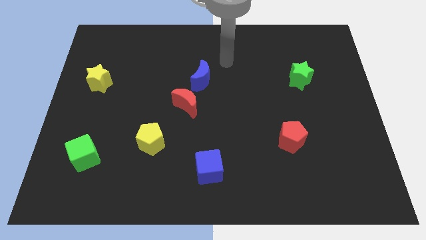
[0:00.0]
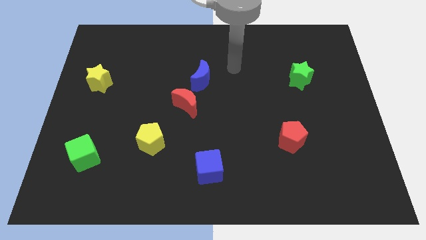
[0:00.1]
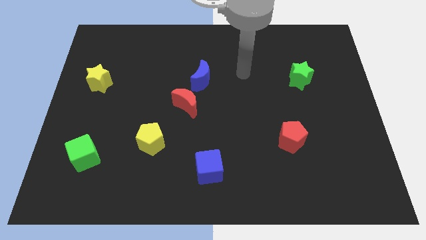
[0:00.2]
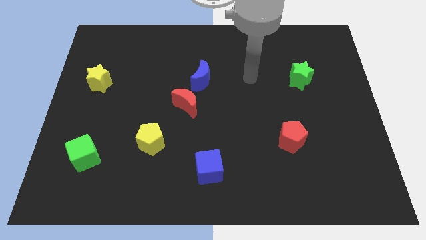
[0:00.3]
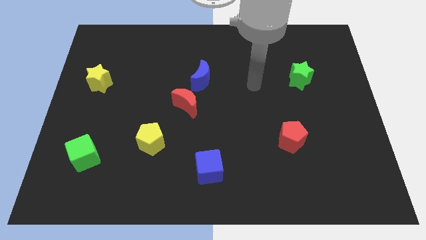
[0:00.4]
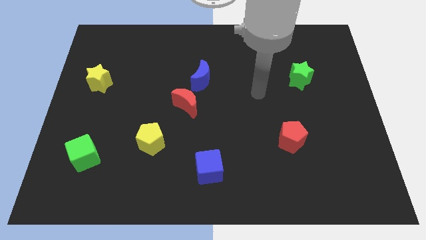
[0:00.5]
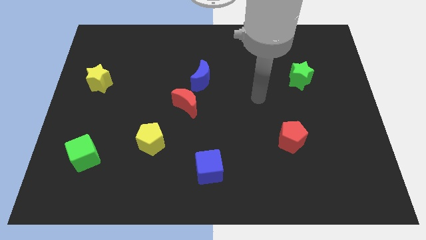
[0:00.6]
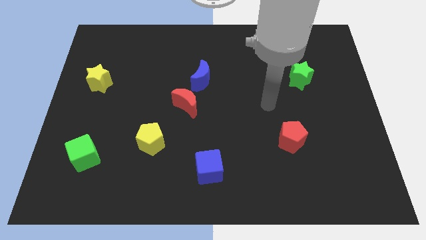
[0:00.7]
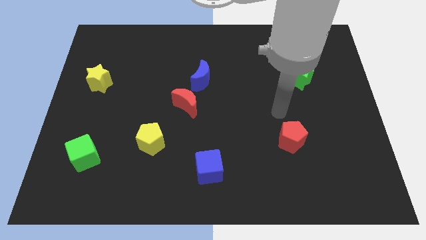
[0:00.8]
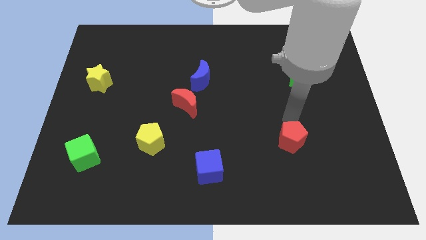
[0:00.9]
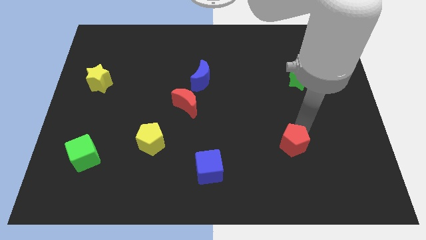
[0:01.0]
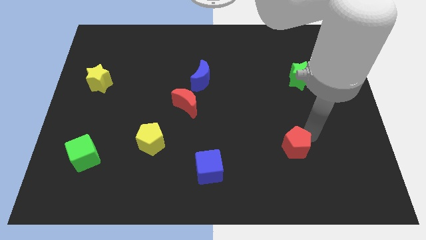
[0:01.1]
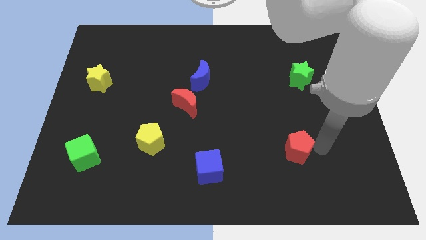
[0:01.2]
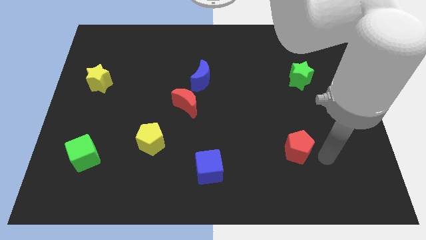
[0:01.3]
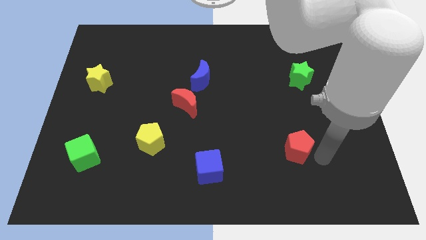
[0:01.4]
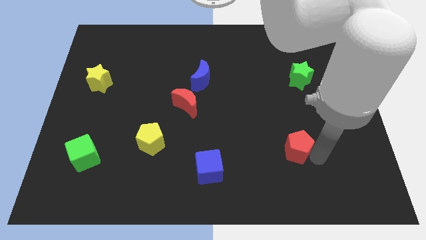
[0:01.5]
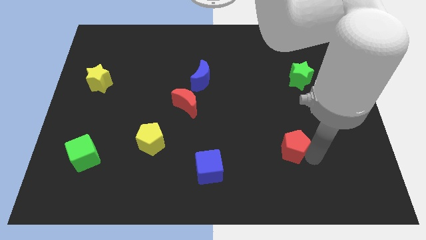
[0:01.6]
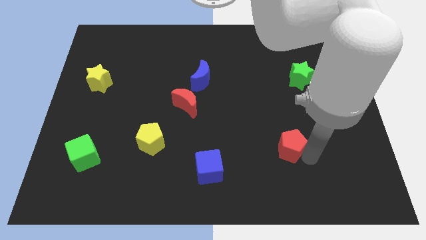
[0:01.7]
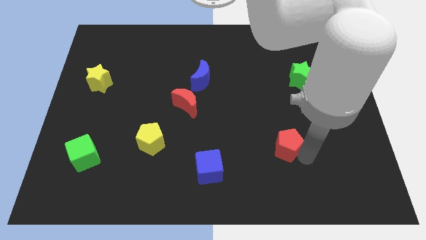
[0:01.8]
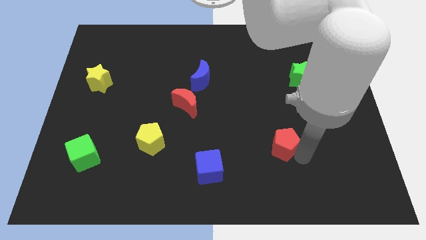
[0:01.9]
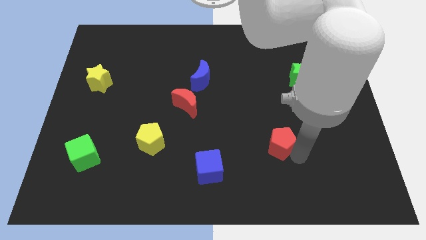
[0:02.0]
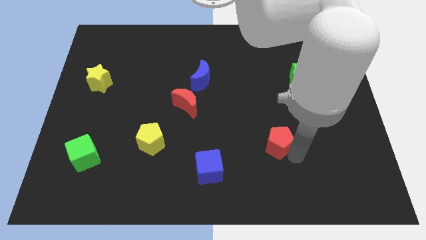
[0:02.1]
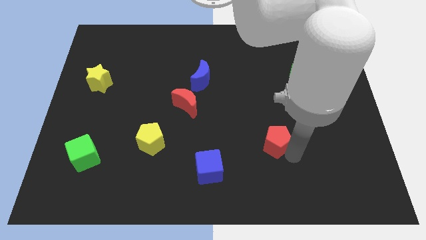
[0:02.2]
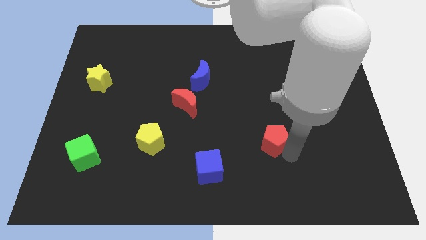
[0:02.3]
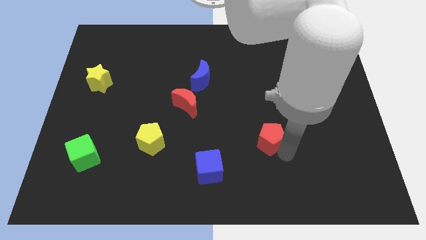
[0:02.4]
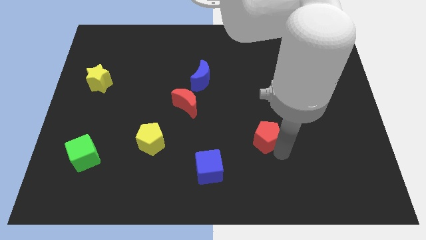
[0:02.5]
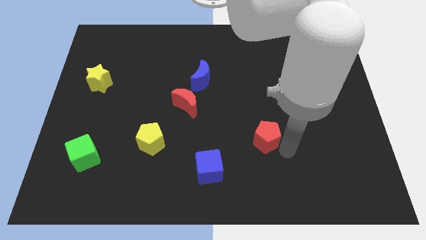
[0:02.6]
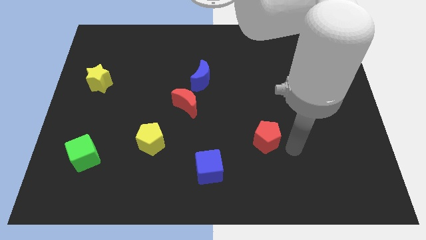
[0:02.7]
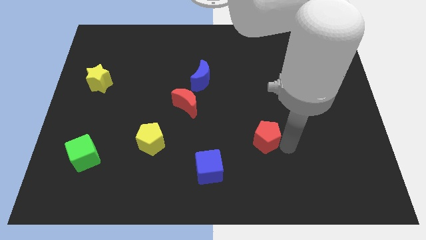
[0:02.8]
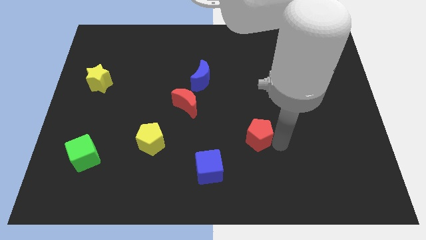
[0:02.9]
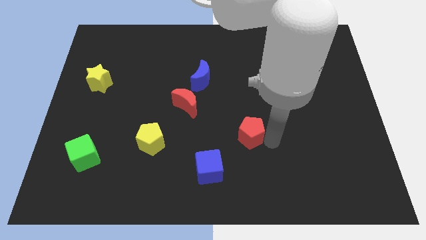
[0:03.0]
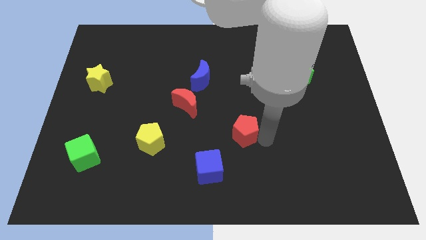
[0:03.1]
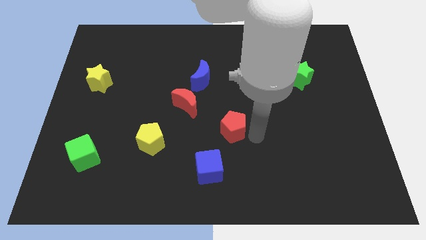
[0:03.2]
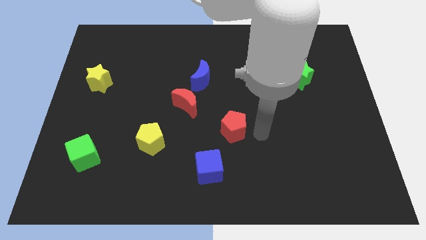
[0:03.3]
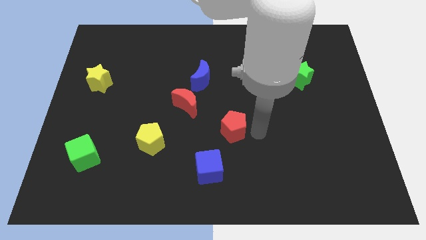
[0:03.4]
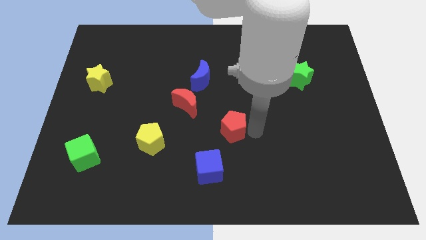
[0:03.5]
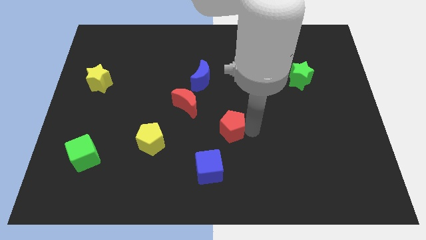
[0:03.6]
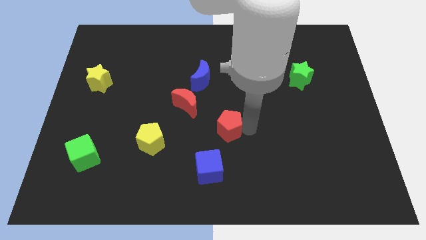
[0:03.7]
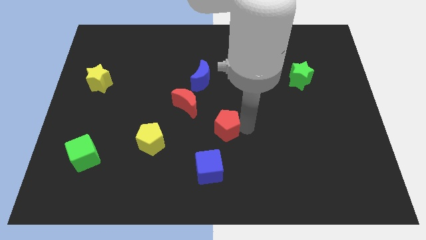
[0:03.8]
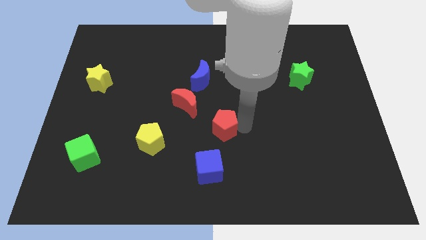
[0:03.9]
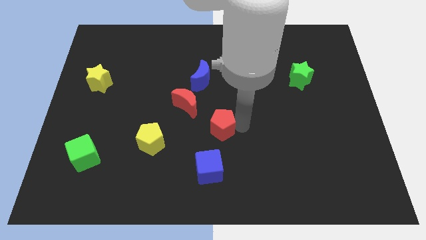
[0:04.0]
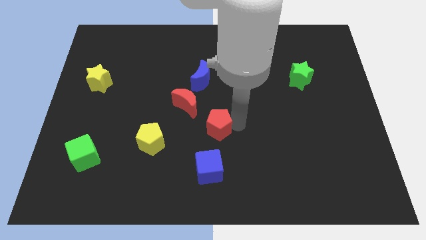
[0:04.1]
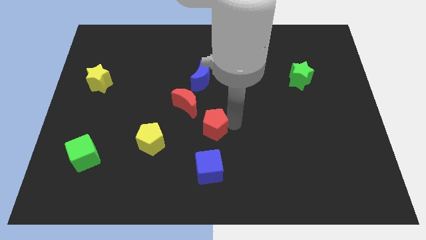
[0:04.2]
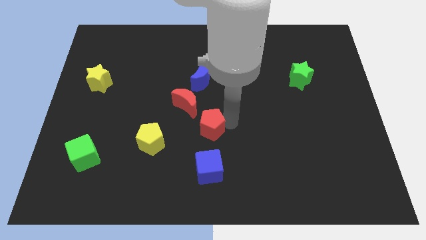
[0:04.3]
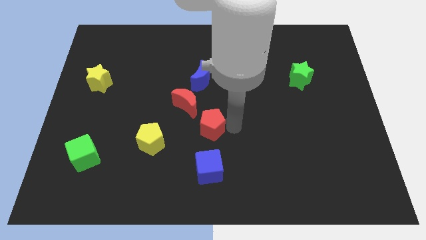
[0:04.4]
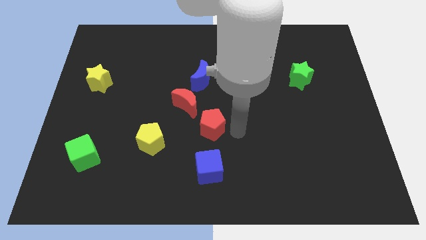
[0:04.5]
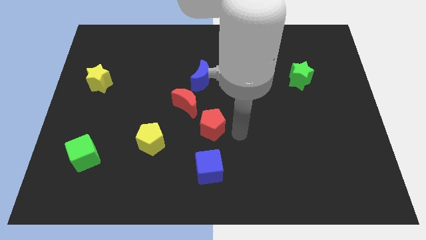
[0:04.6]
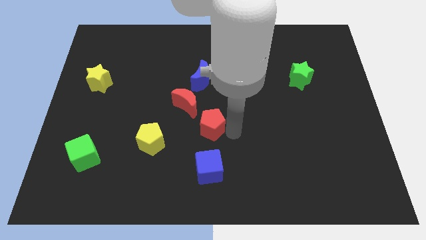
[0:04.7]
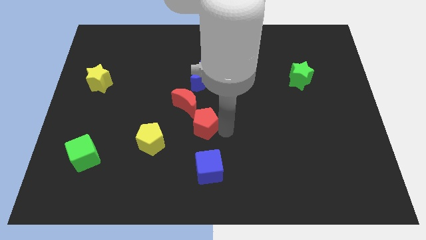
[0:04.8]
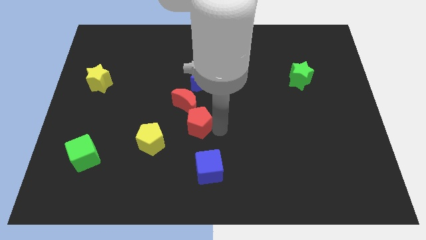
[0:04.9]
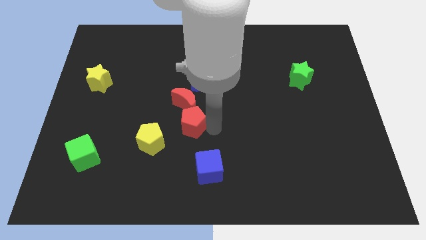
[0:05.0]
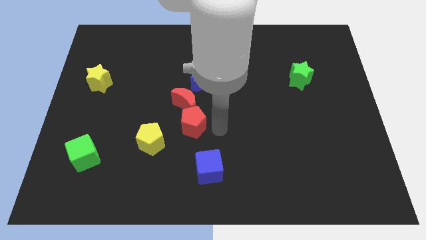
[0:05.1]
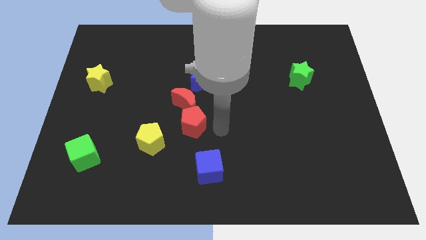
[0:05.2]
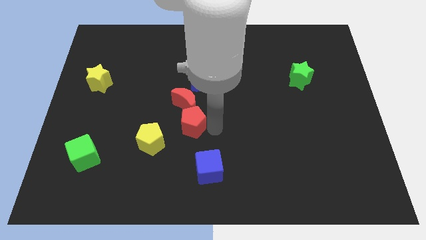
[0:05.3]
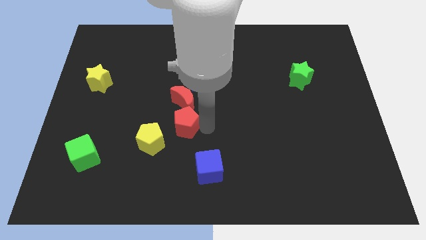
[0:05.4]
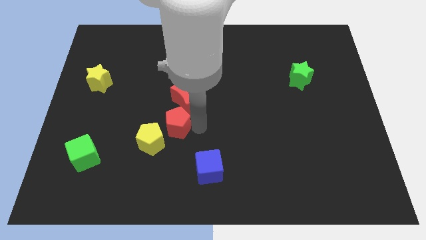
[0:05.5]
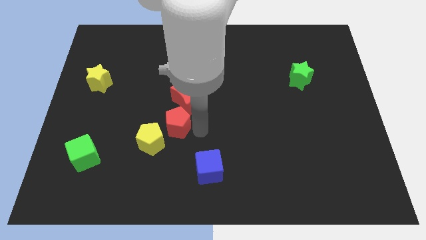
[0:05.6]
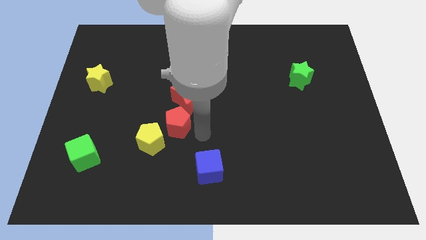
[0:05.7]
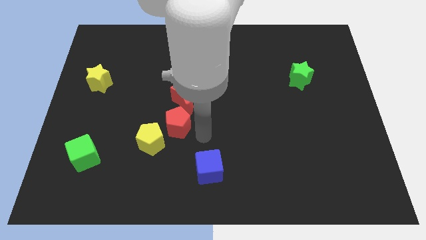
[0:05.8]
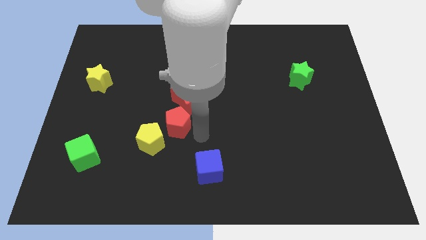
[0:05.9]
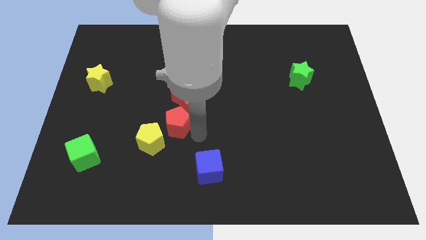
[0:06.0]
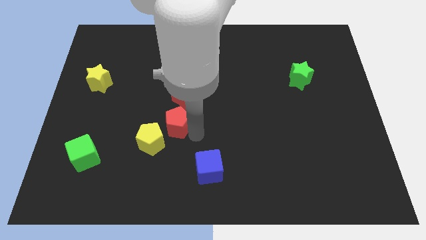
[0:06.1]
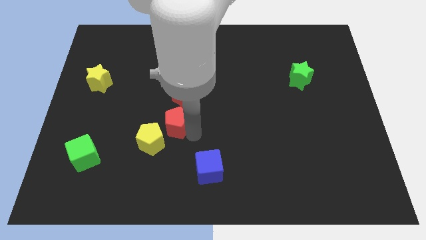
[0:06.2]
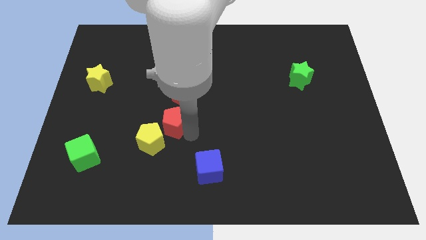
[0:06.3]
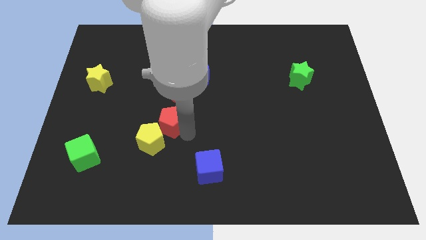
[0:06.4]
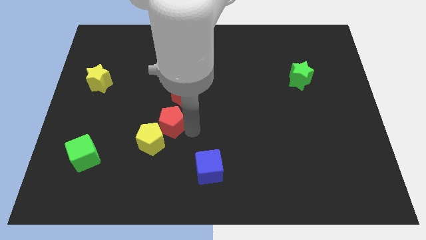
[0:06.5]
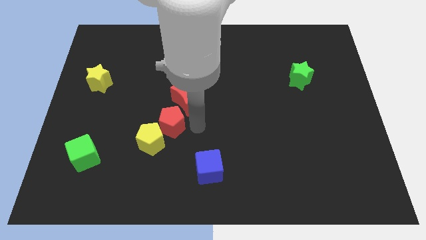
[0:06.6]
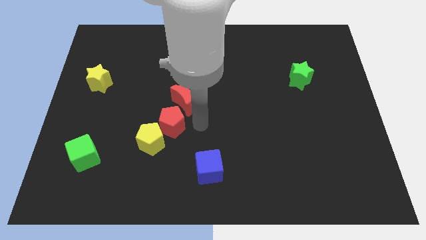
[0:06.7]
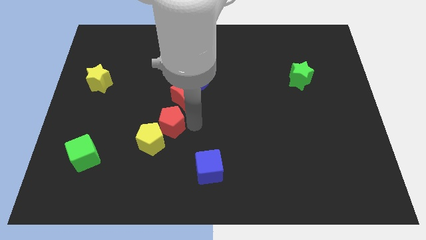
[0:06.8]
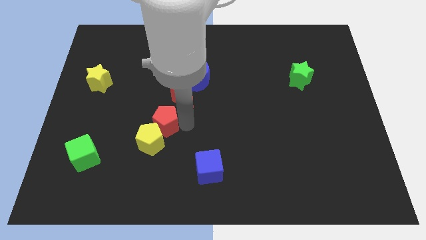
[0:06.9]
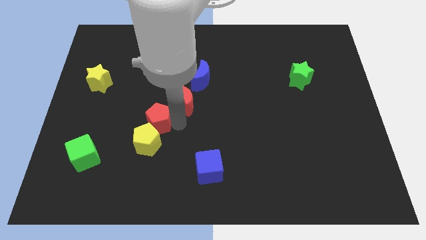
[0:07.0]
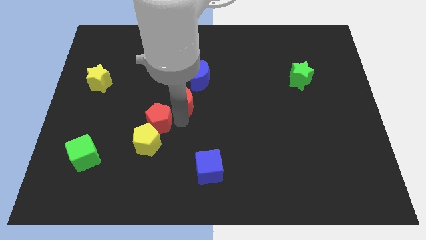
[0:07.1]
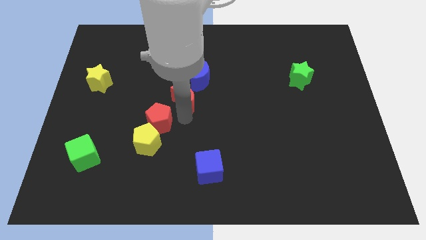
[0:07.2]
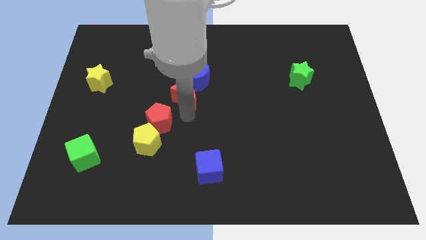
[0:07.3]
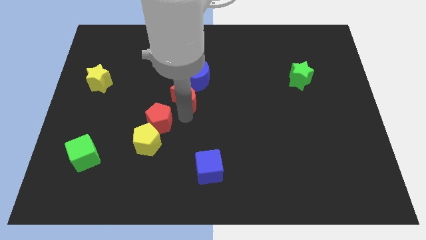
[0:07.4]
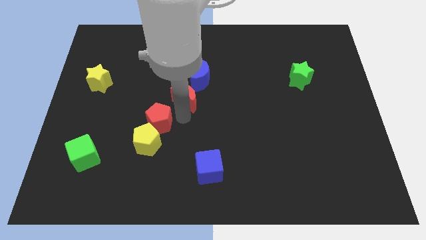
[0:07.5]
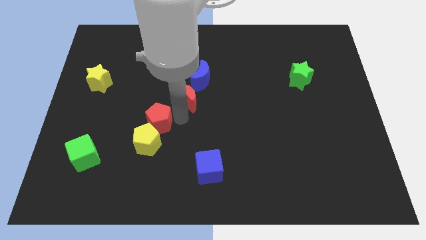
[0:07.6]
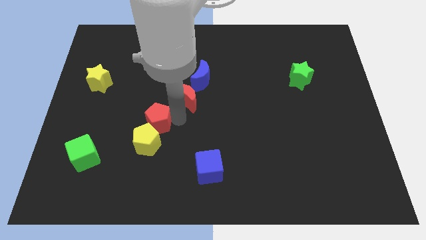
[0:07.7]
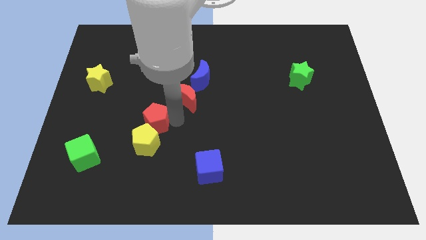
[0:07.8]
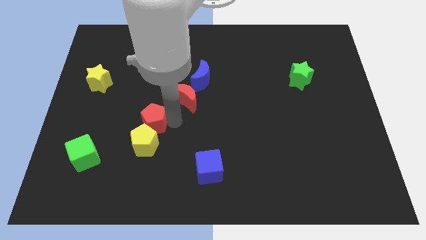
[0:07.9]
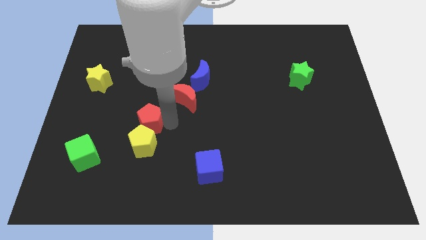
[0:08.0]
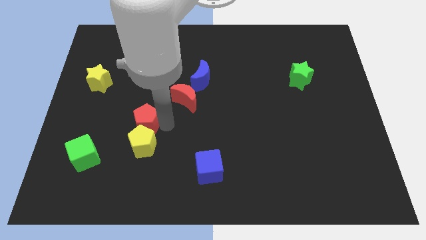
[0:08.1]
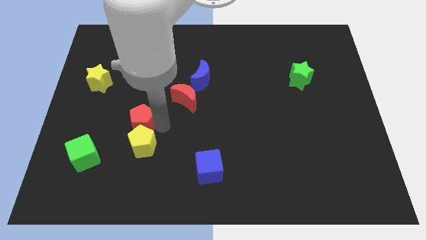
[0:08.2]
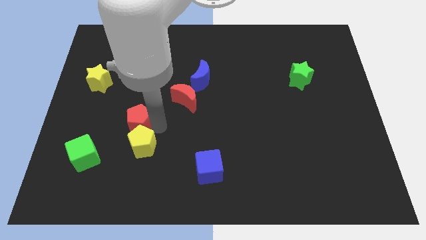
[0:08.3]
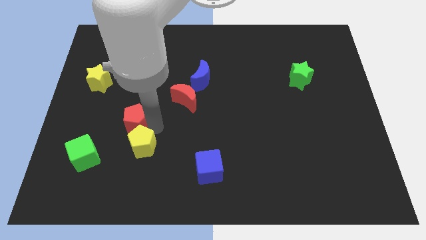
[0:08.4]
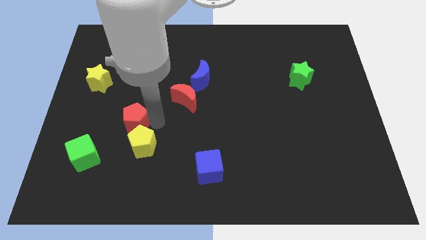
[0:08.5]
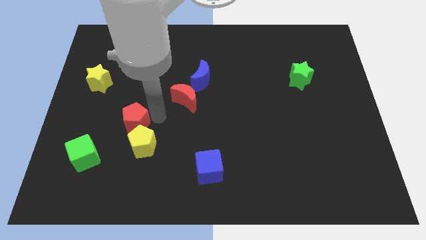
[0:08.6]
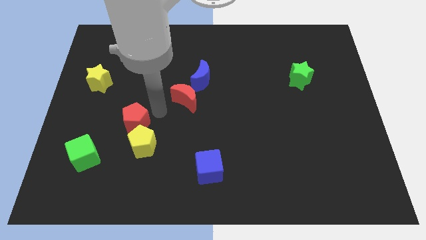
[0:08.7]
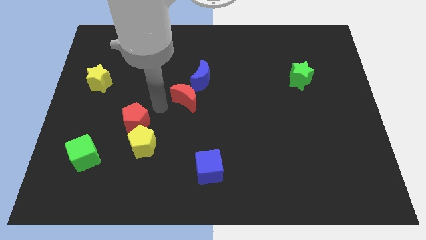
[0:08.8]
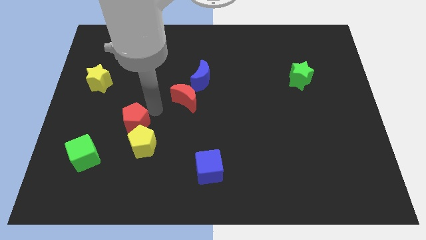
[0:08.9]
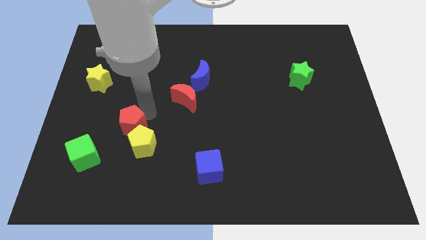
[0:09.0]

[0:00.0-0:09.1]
slide the red pentagon diagonally up and to the right of the green cube
